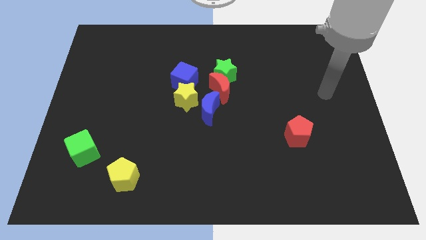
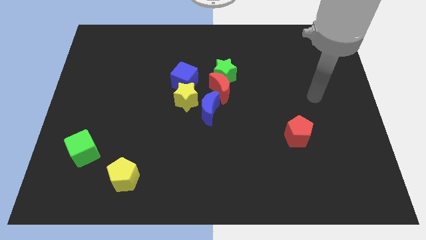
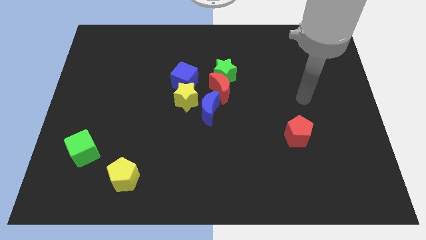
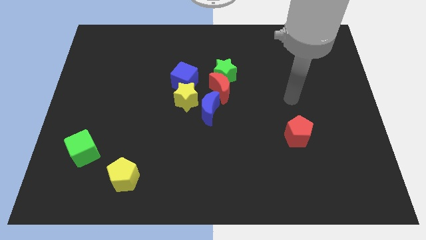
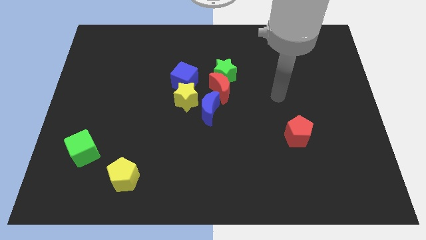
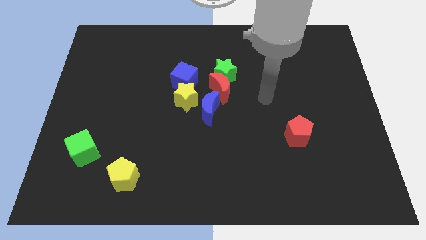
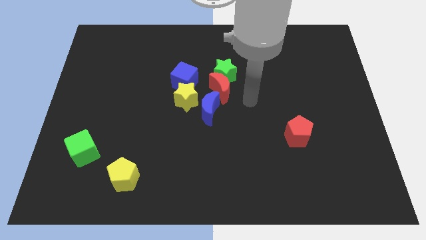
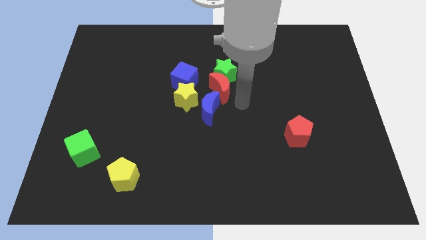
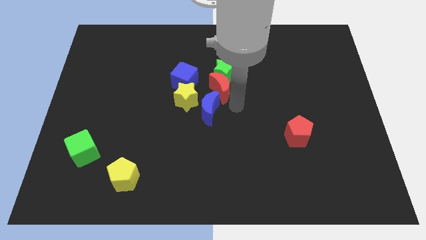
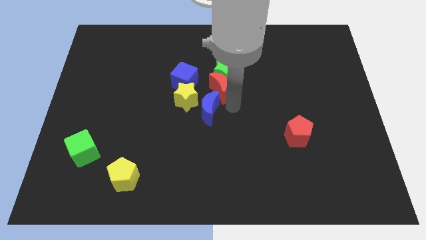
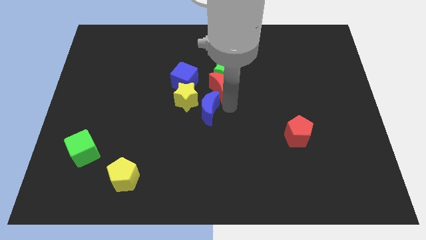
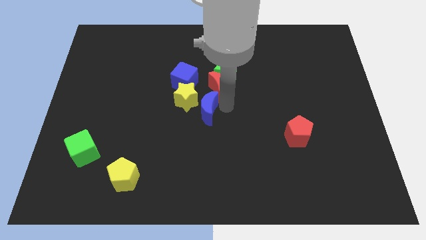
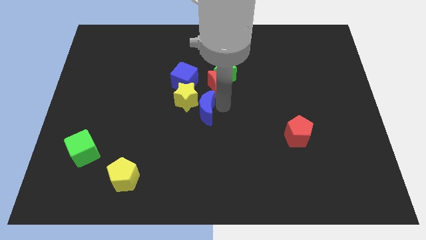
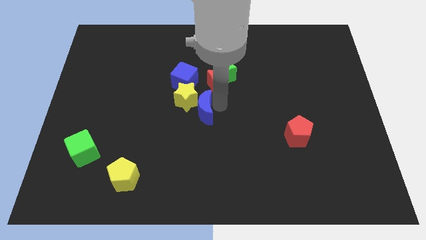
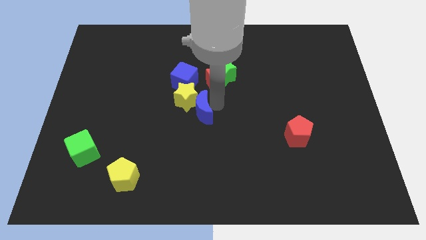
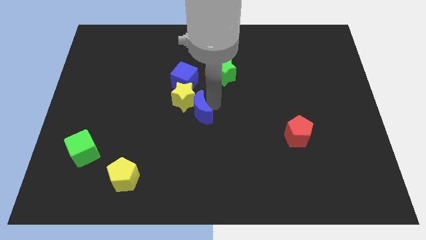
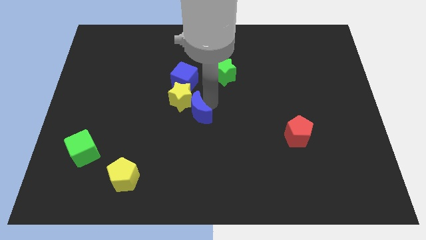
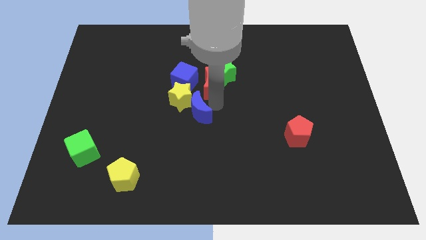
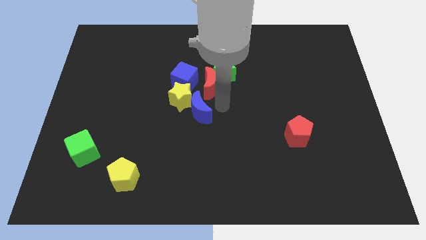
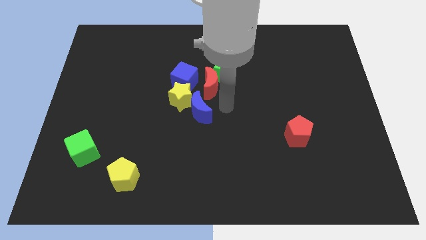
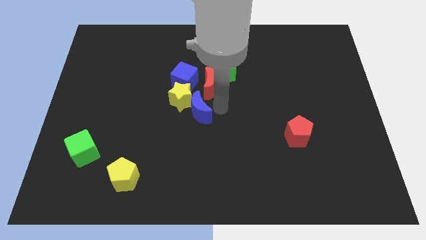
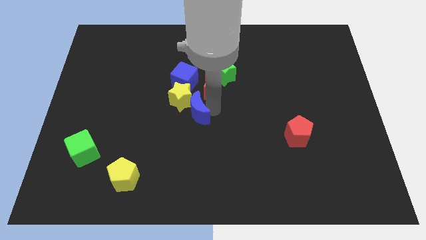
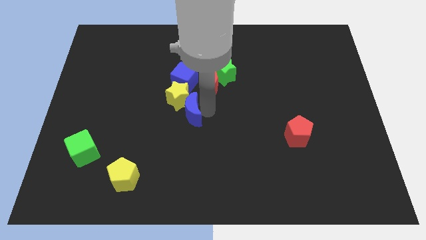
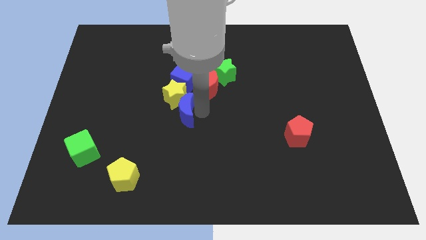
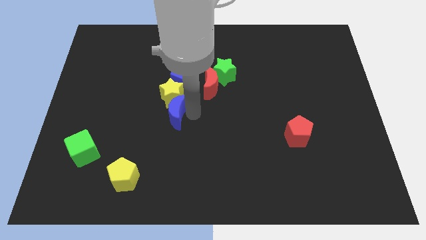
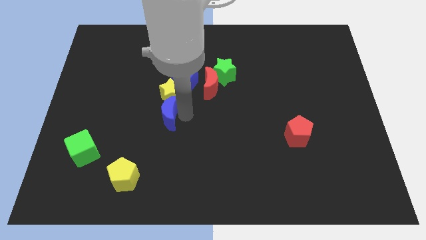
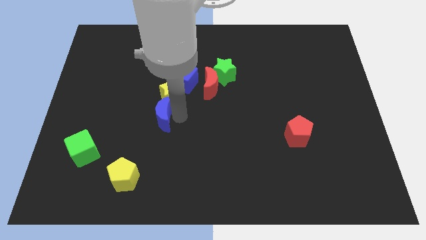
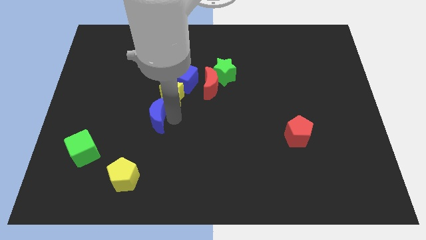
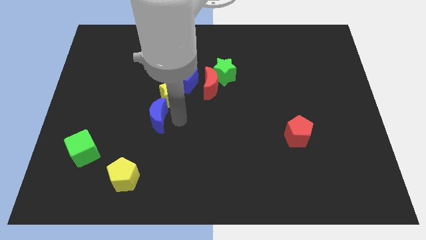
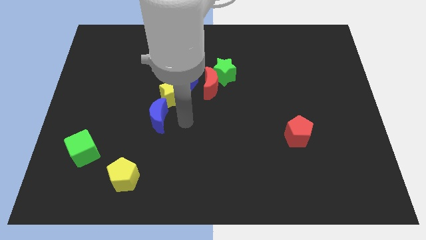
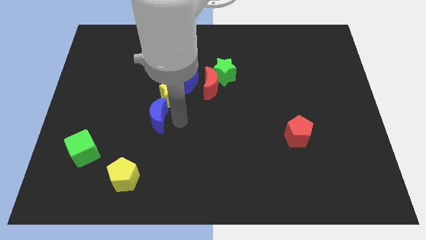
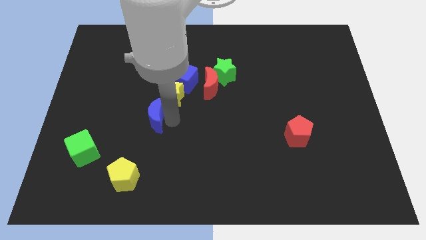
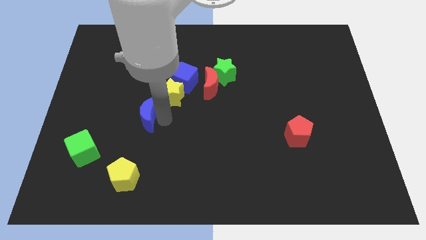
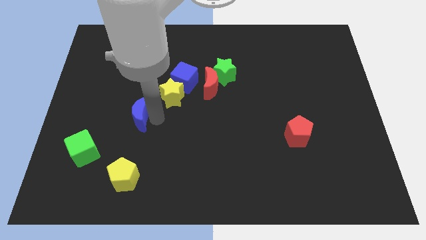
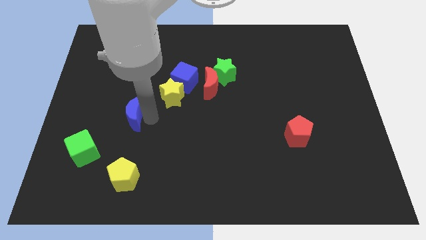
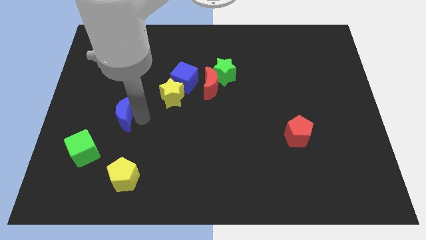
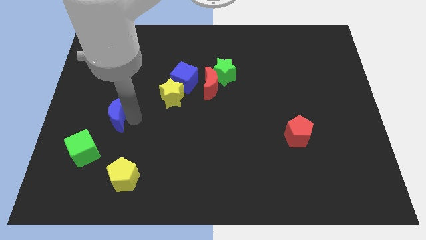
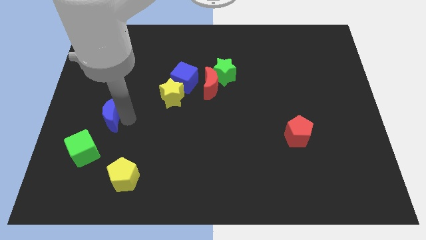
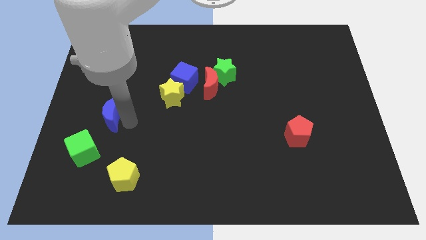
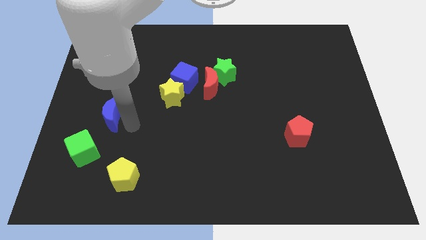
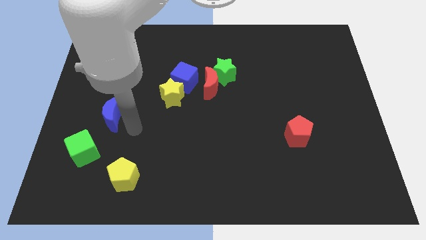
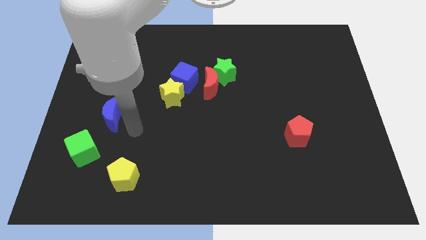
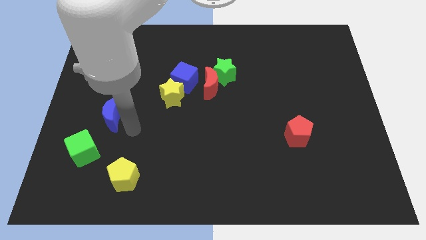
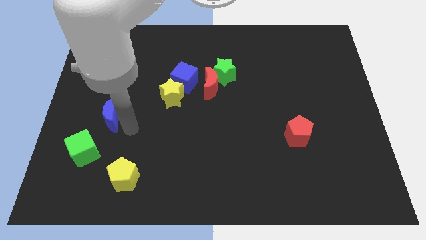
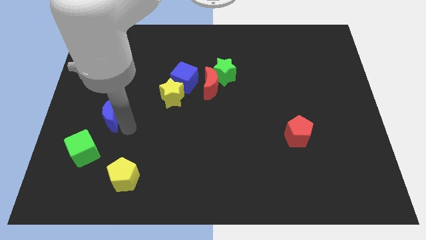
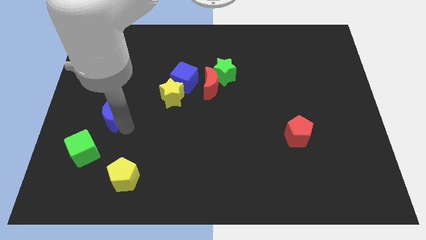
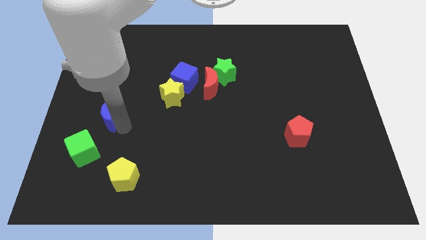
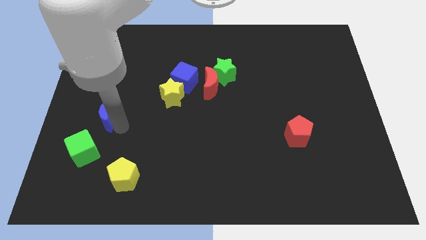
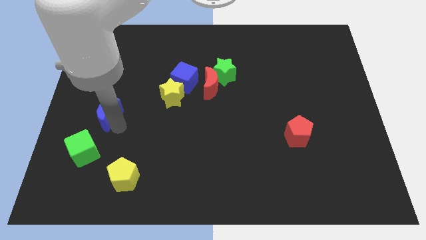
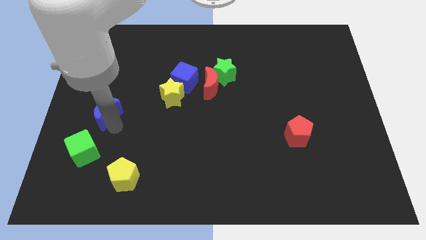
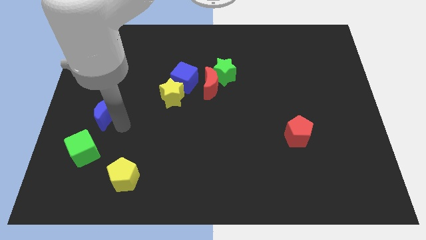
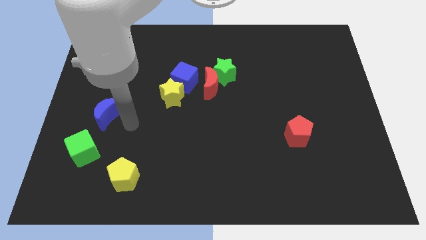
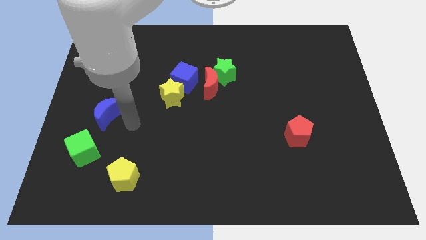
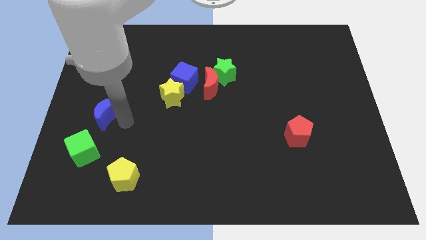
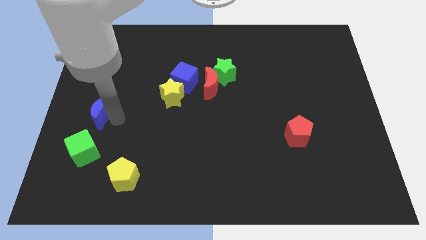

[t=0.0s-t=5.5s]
move the blue moon to the center left

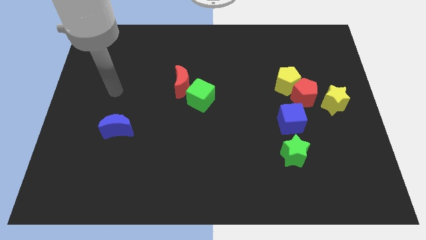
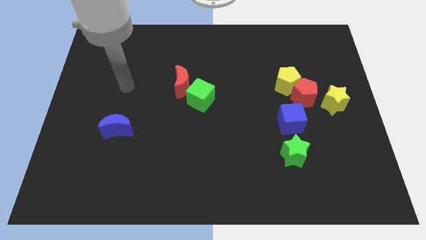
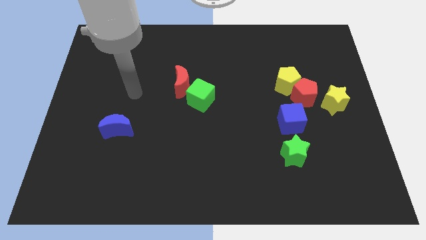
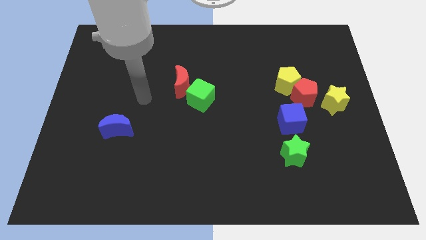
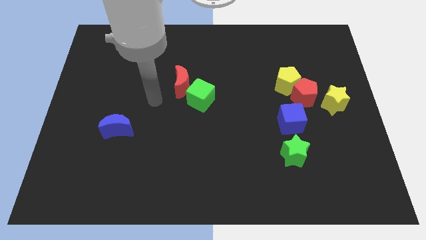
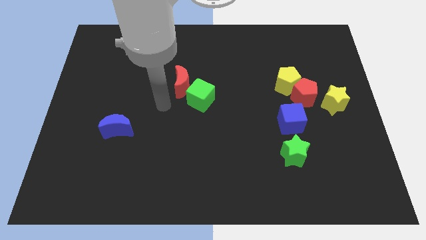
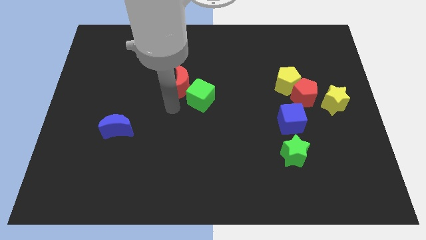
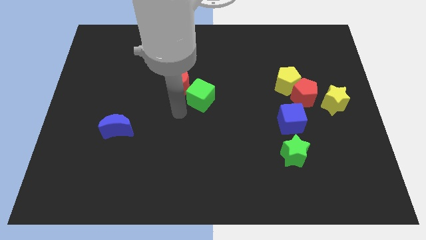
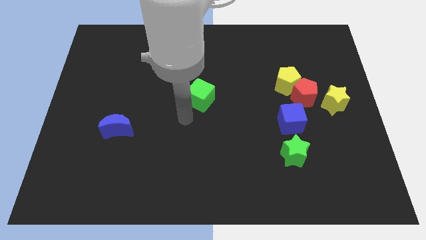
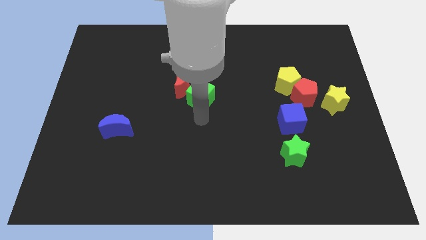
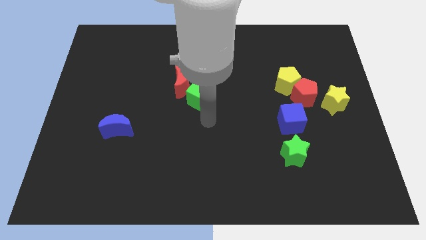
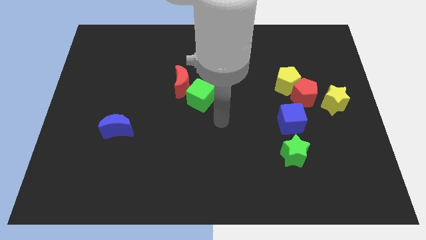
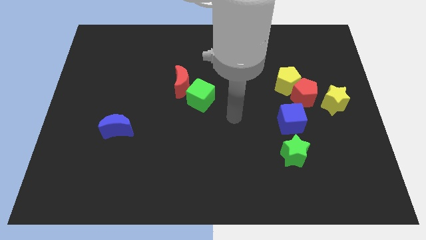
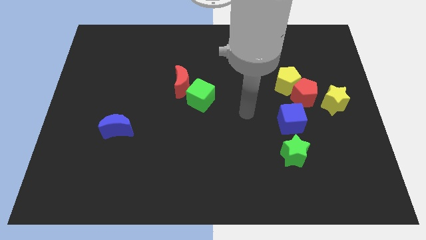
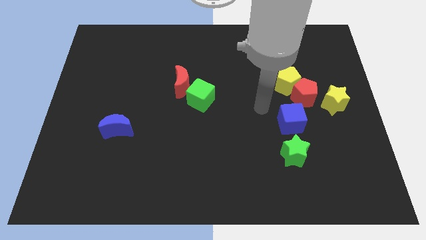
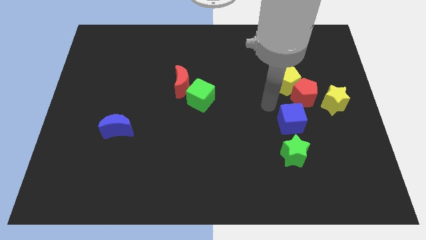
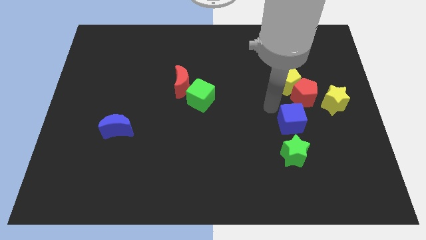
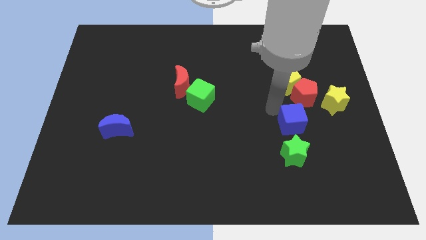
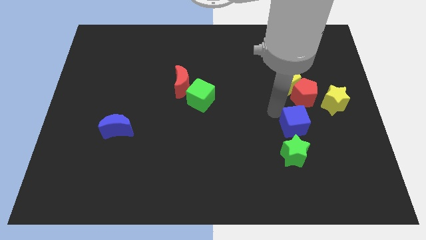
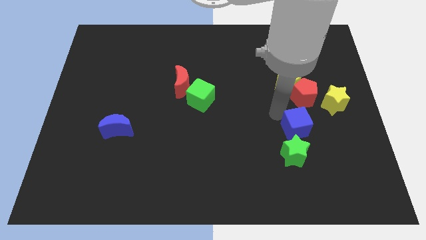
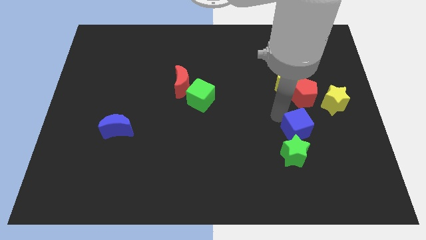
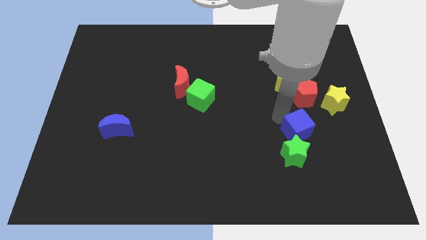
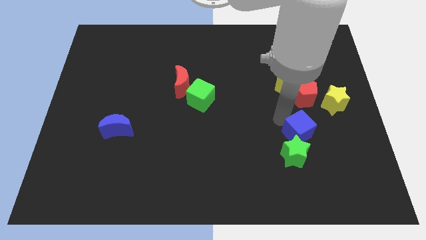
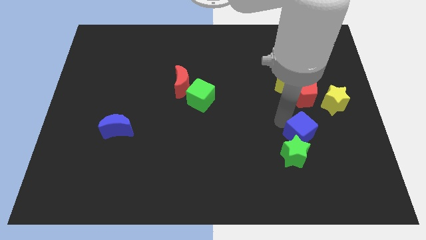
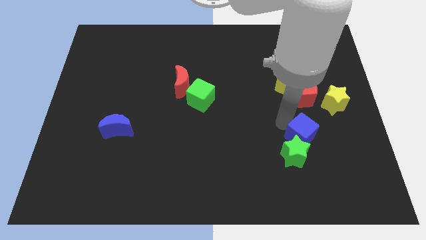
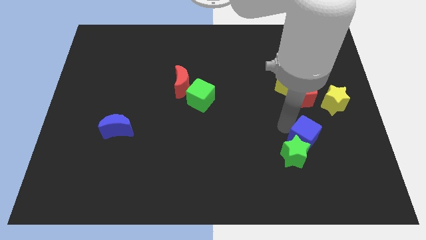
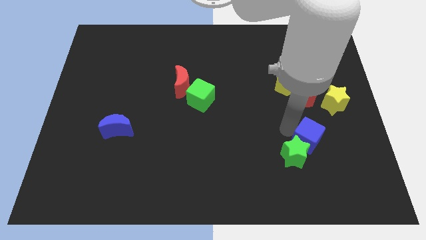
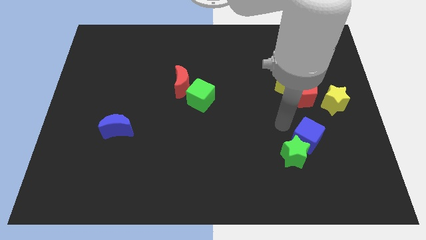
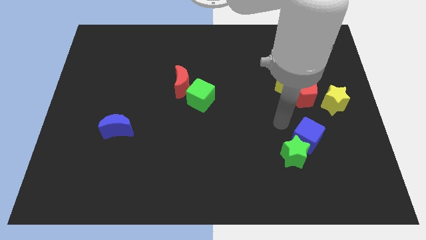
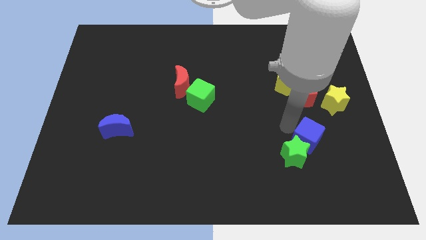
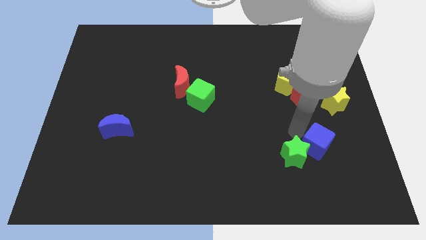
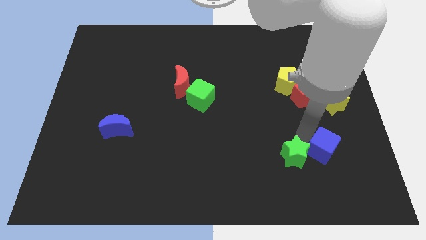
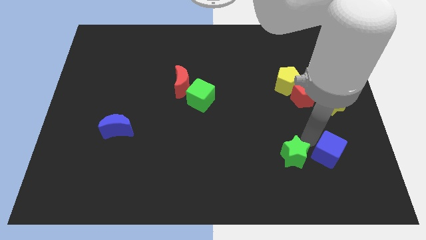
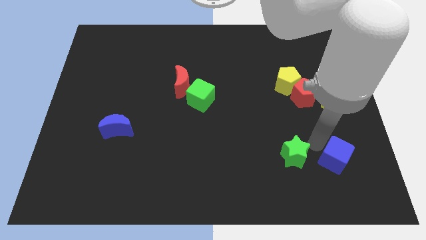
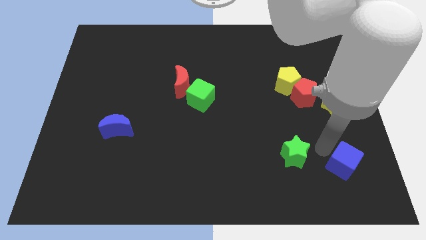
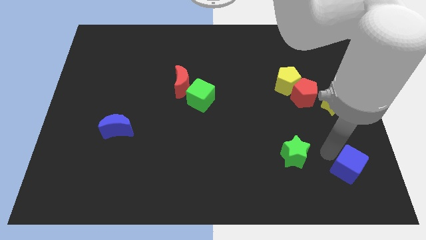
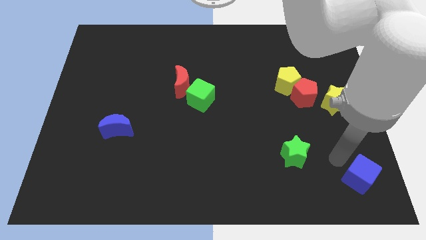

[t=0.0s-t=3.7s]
move the blue cube to the bottom right
